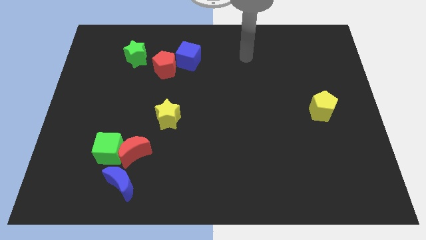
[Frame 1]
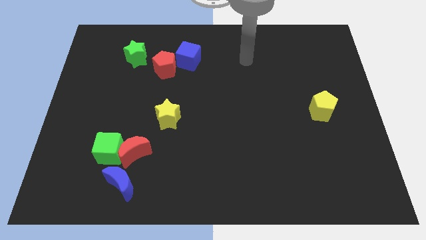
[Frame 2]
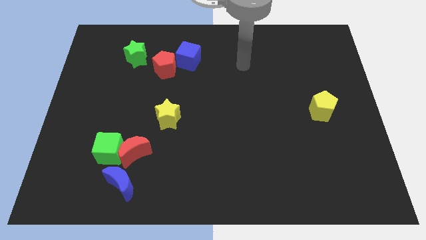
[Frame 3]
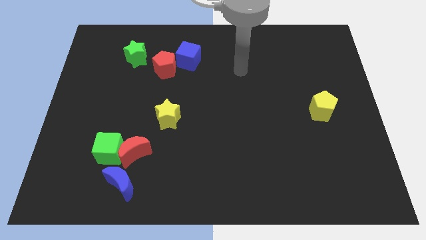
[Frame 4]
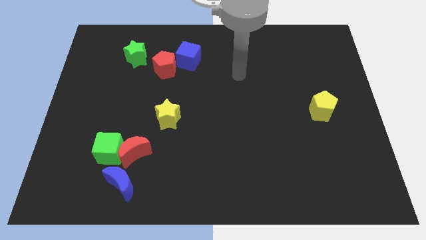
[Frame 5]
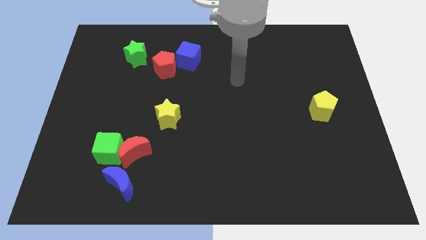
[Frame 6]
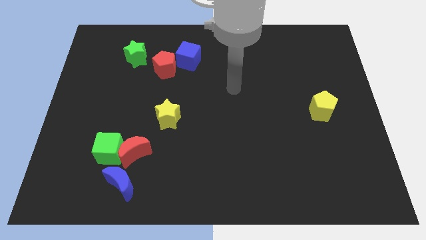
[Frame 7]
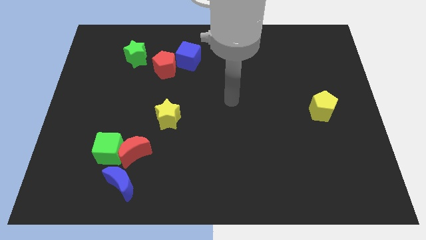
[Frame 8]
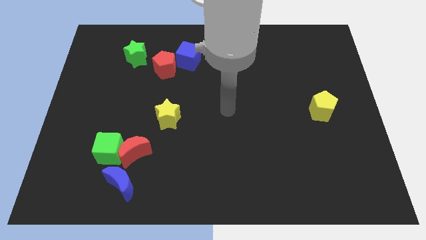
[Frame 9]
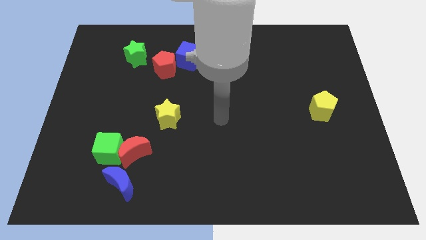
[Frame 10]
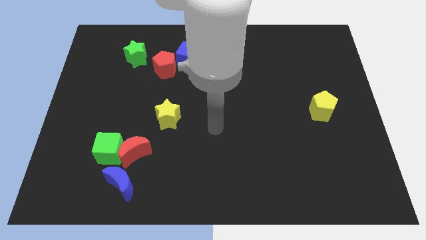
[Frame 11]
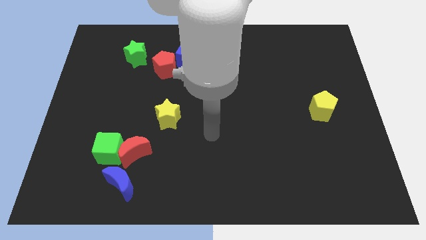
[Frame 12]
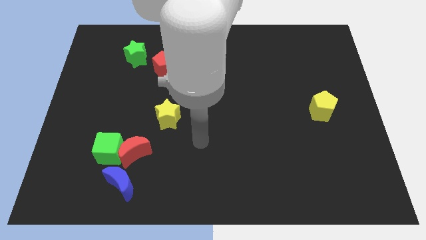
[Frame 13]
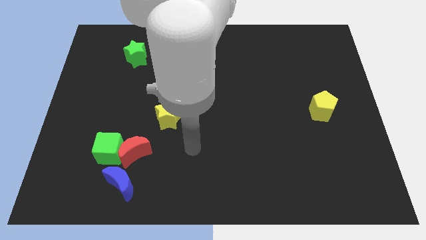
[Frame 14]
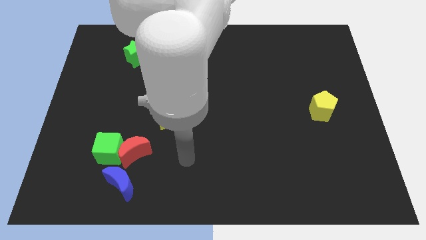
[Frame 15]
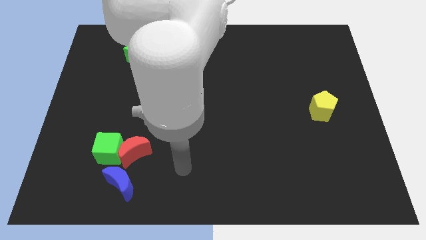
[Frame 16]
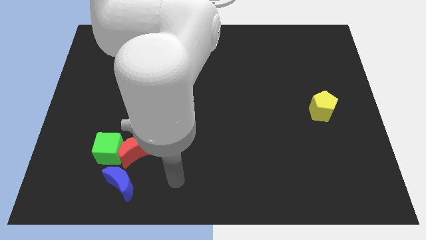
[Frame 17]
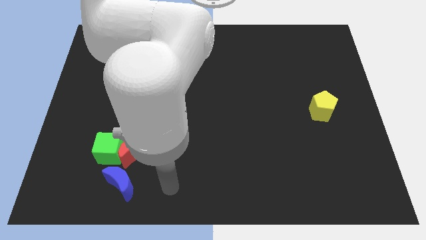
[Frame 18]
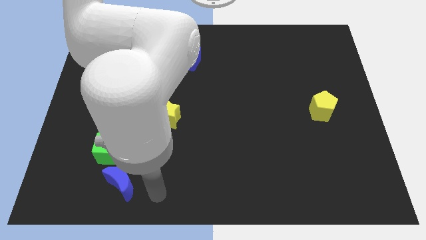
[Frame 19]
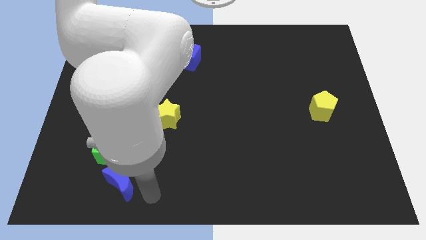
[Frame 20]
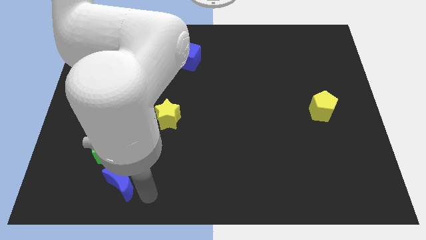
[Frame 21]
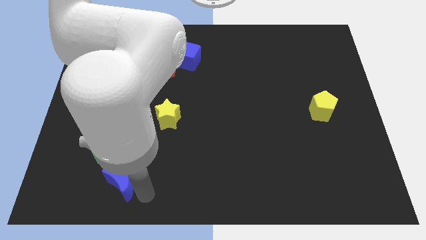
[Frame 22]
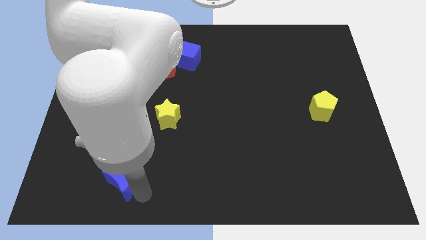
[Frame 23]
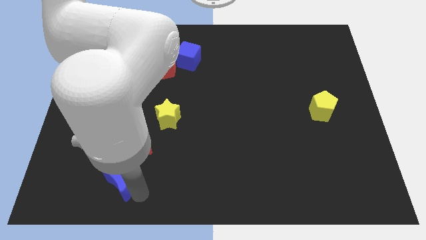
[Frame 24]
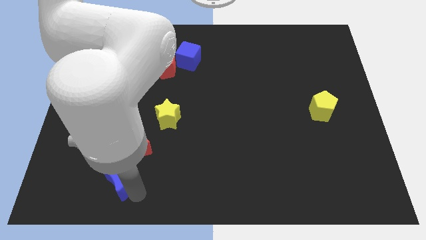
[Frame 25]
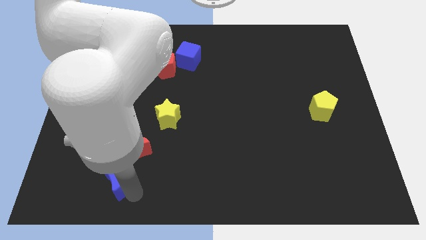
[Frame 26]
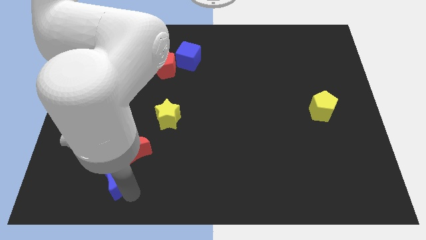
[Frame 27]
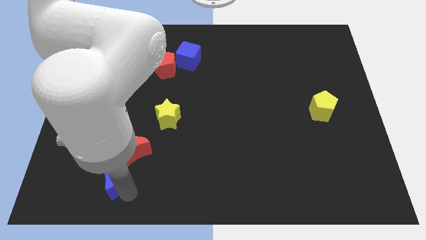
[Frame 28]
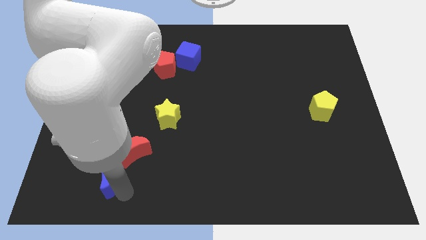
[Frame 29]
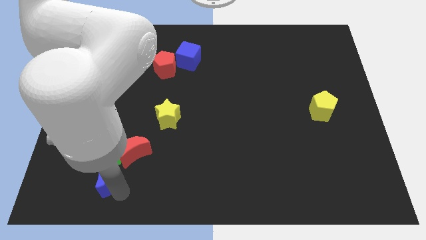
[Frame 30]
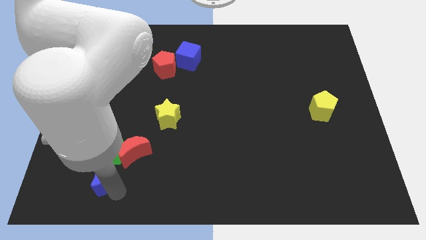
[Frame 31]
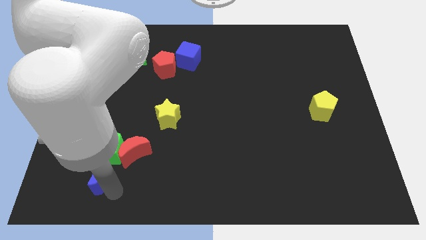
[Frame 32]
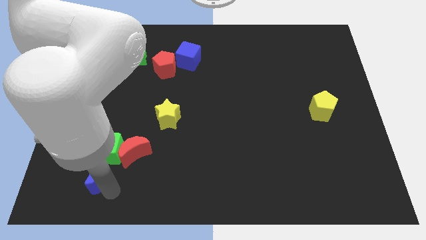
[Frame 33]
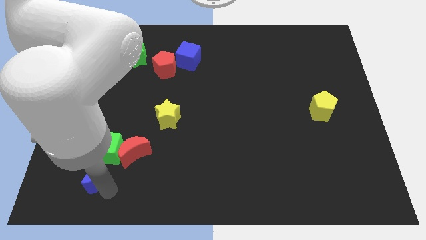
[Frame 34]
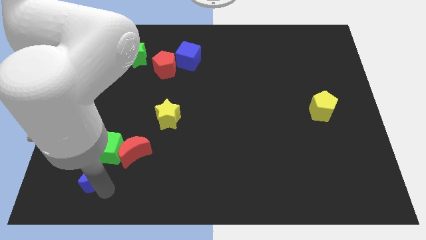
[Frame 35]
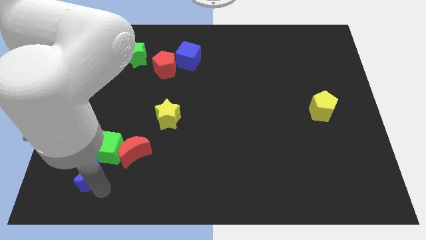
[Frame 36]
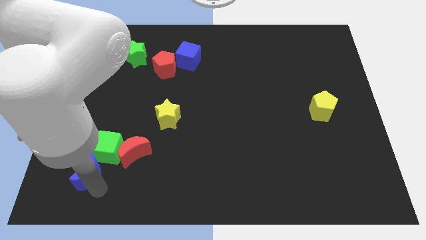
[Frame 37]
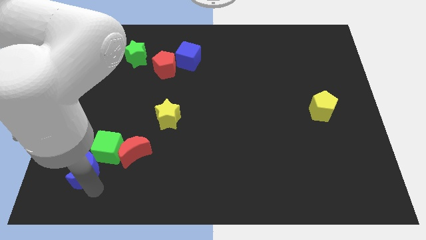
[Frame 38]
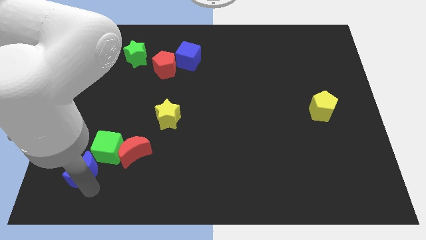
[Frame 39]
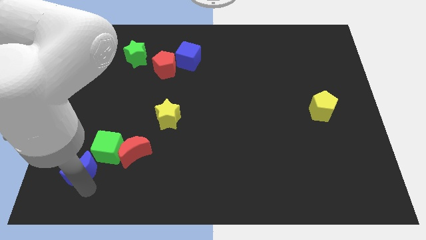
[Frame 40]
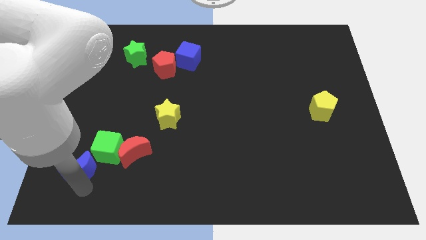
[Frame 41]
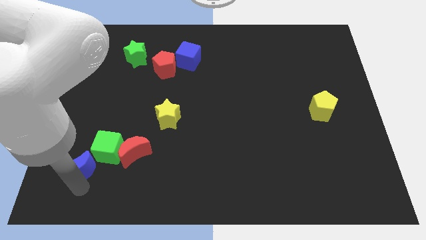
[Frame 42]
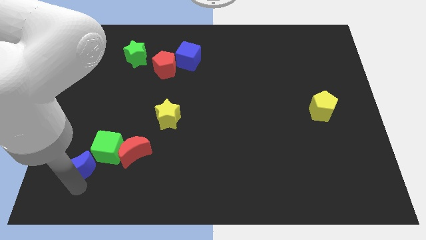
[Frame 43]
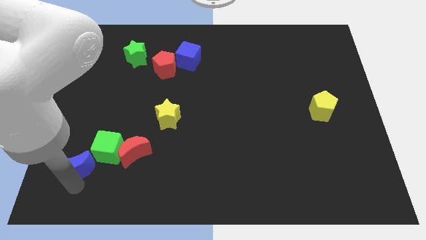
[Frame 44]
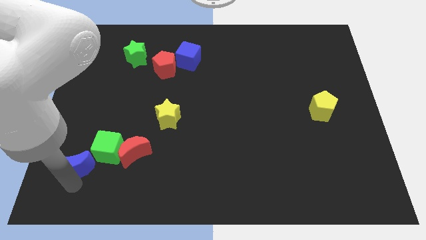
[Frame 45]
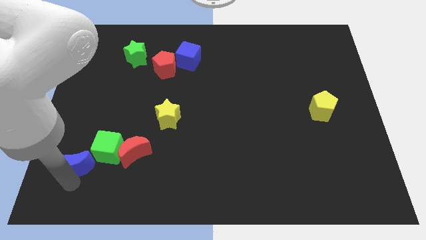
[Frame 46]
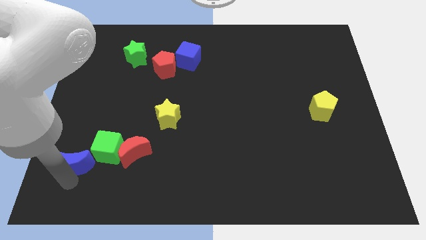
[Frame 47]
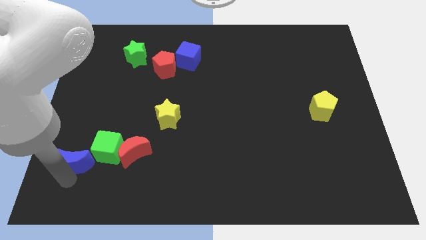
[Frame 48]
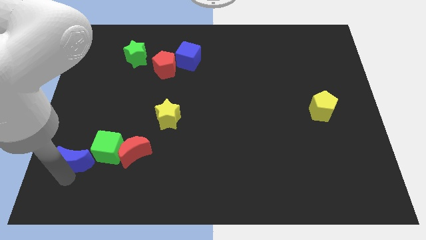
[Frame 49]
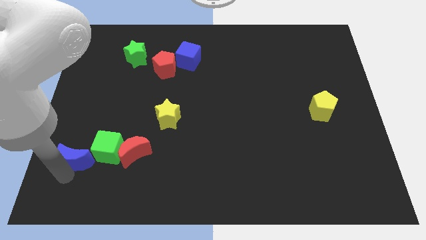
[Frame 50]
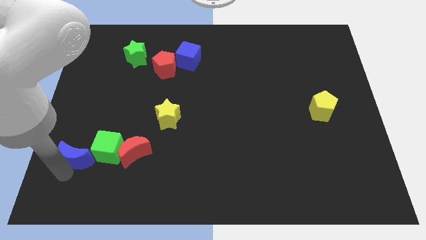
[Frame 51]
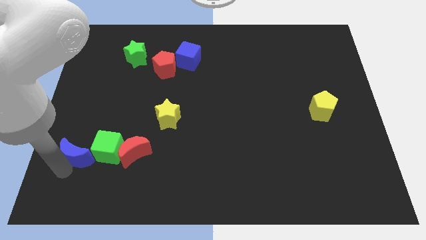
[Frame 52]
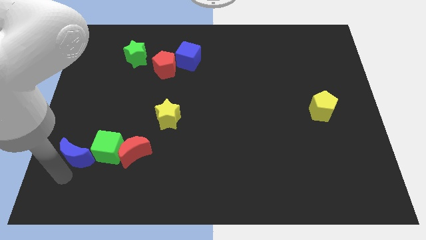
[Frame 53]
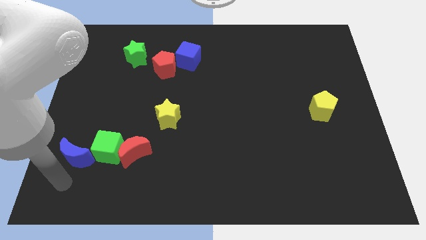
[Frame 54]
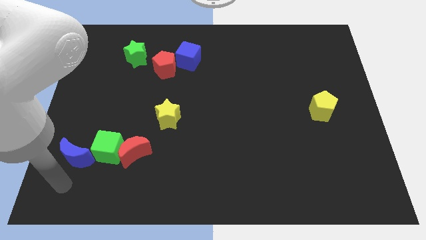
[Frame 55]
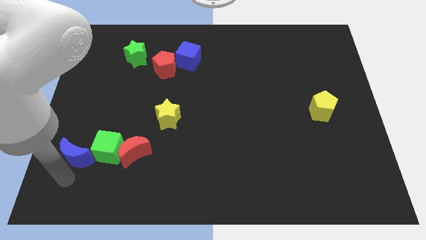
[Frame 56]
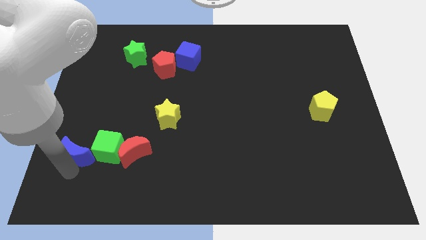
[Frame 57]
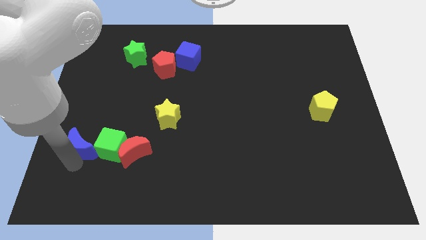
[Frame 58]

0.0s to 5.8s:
put the blue moon to the top left of the green cube

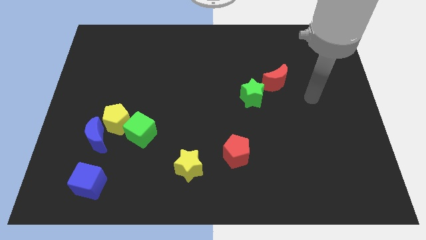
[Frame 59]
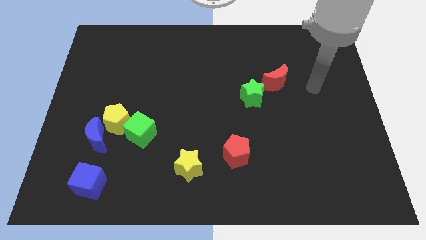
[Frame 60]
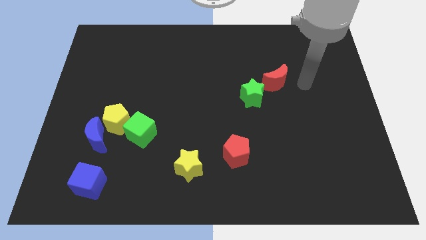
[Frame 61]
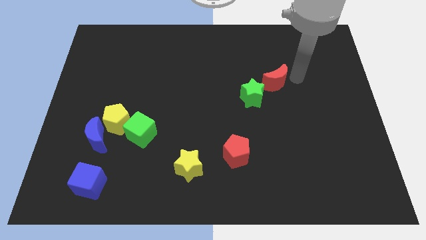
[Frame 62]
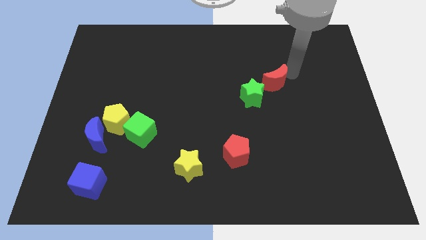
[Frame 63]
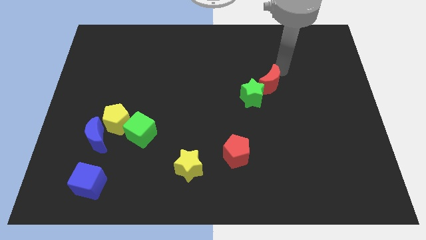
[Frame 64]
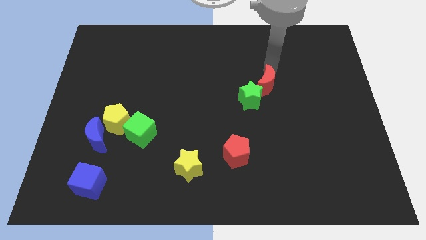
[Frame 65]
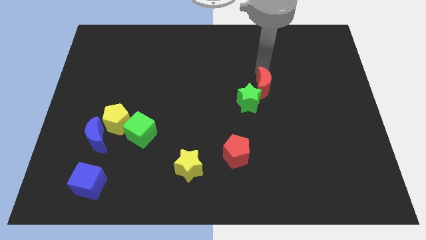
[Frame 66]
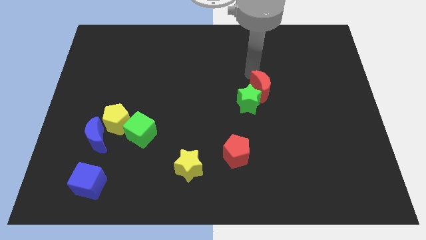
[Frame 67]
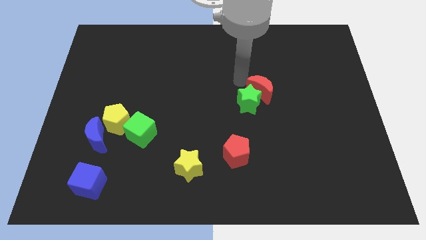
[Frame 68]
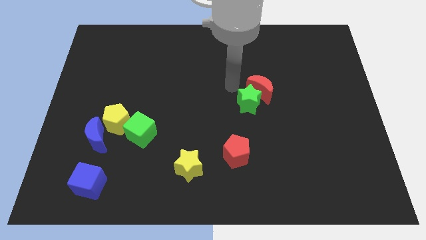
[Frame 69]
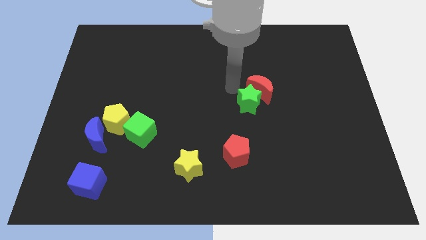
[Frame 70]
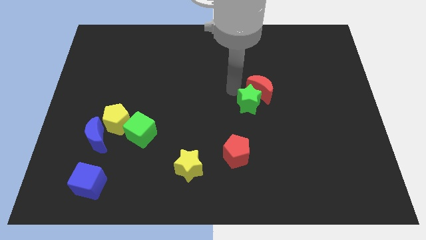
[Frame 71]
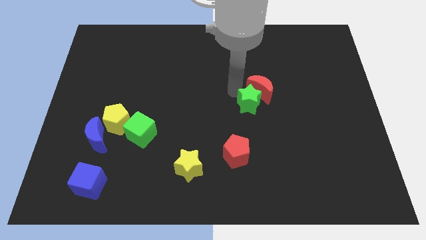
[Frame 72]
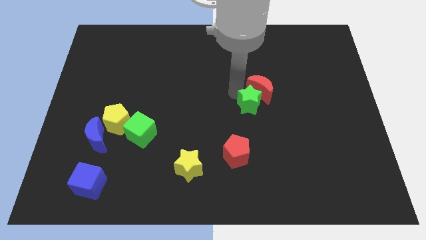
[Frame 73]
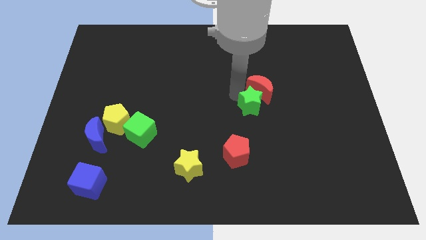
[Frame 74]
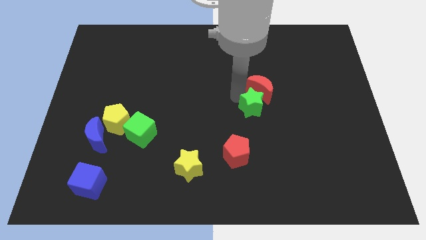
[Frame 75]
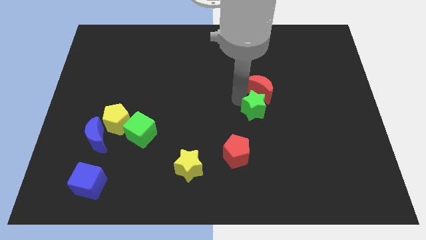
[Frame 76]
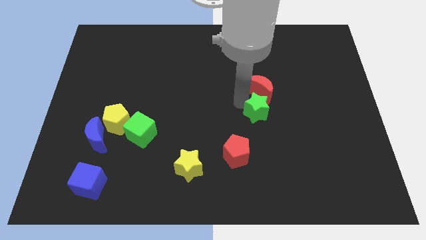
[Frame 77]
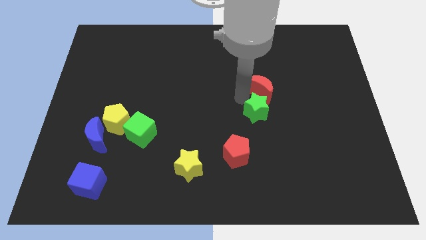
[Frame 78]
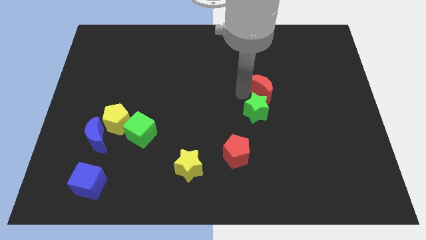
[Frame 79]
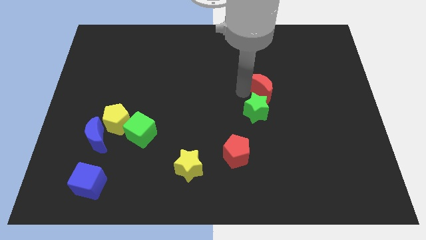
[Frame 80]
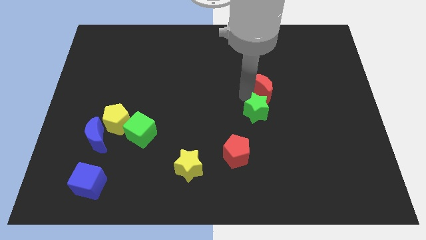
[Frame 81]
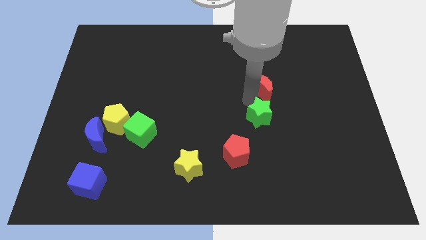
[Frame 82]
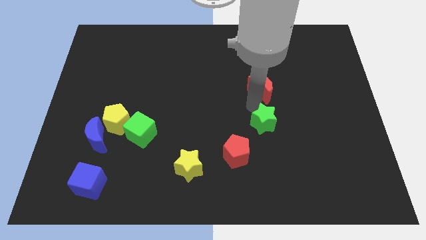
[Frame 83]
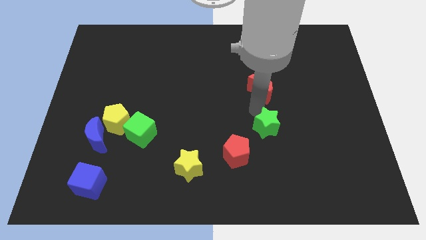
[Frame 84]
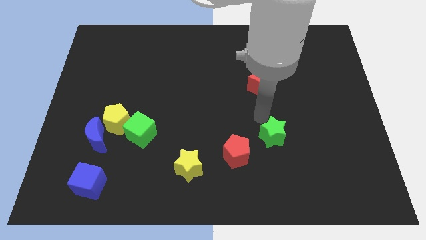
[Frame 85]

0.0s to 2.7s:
push the green star right of the red pentagon
